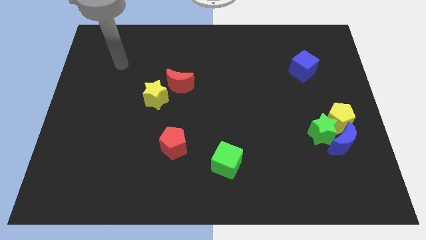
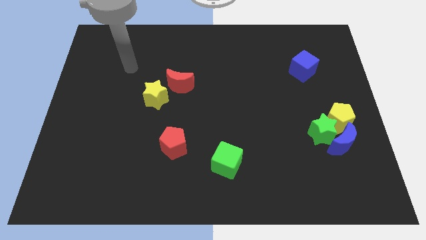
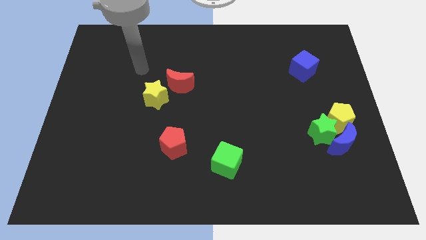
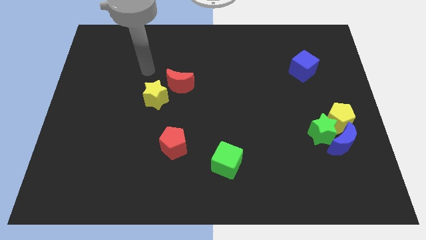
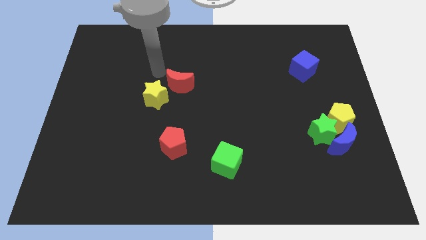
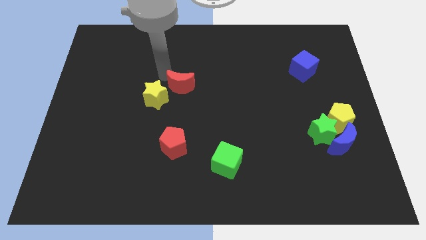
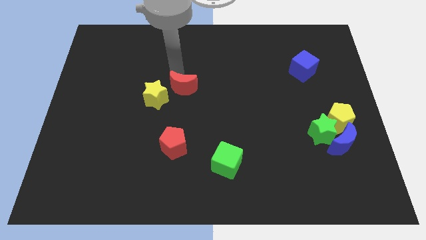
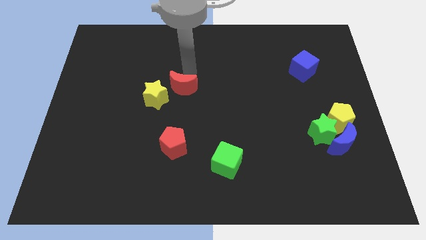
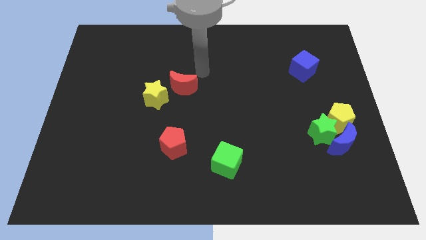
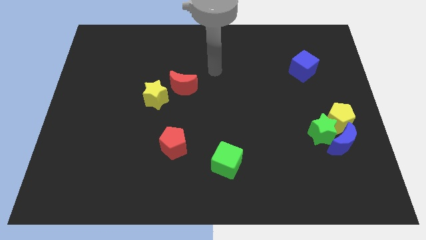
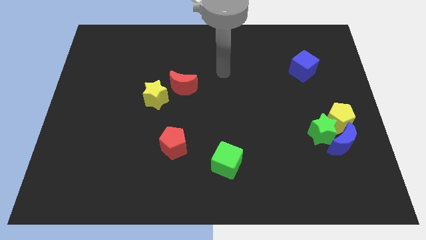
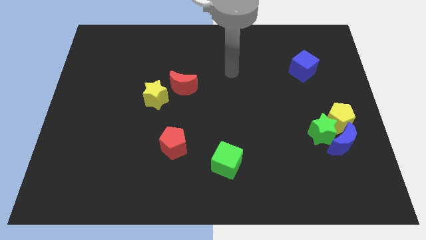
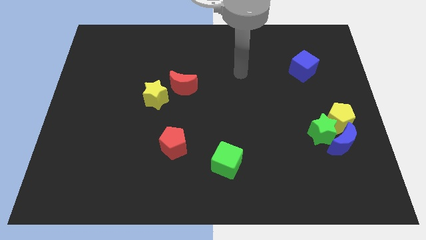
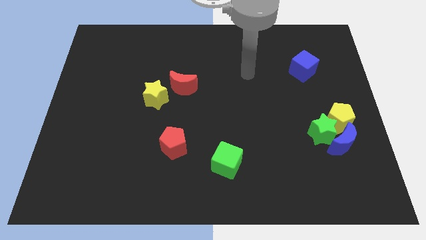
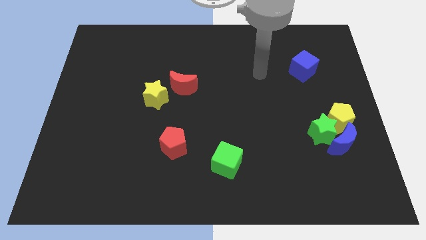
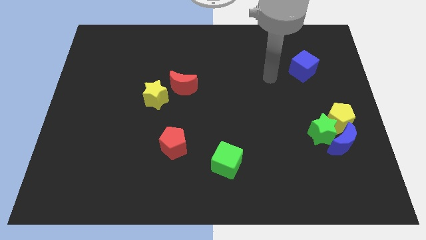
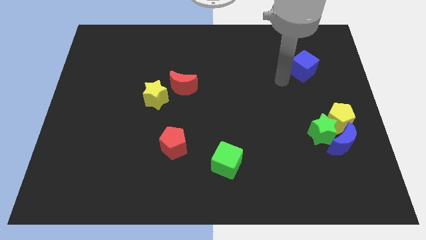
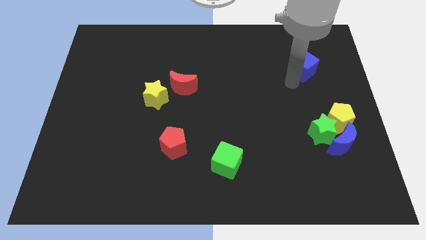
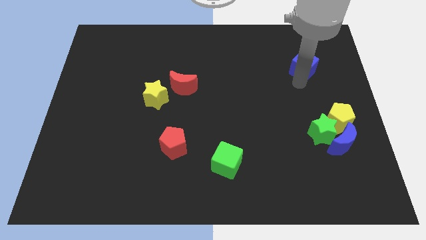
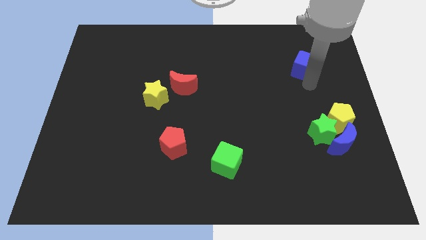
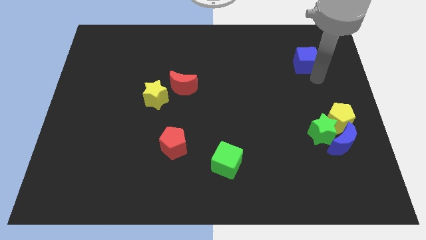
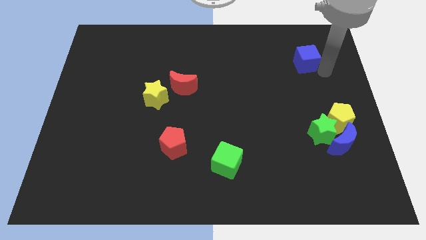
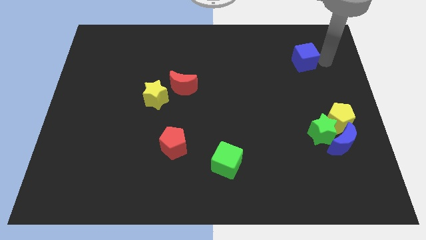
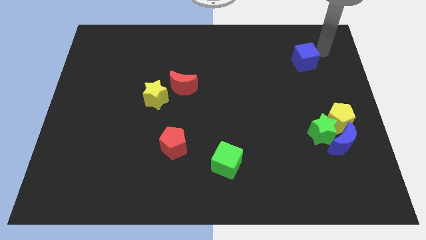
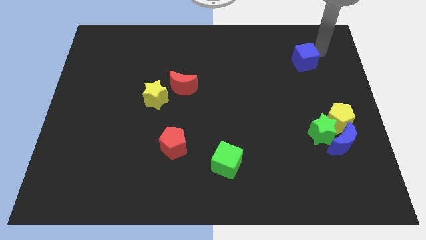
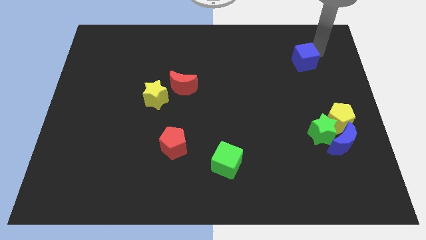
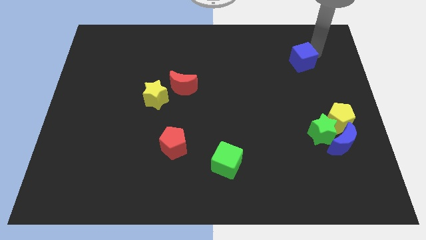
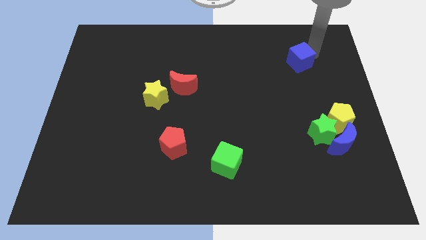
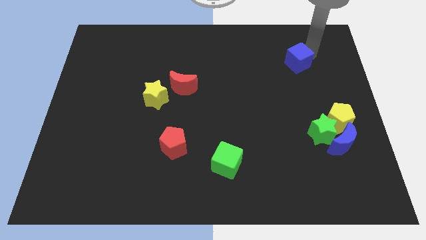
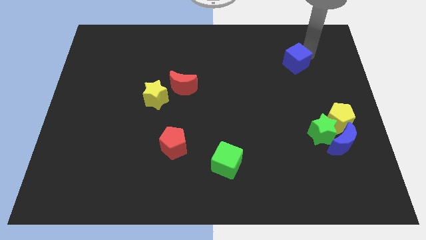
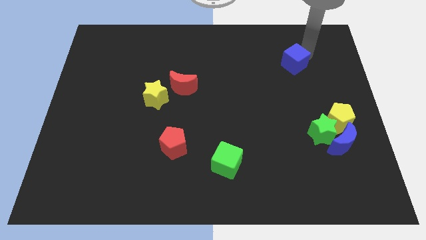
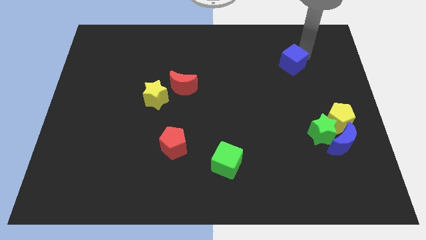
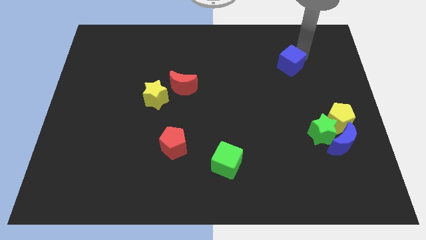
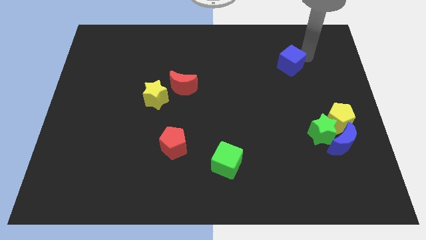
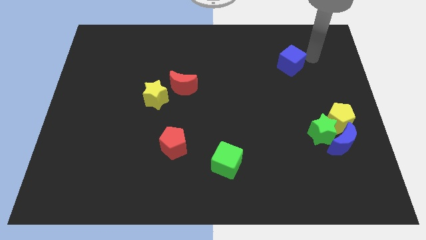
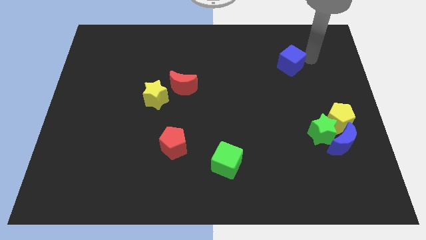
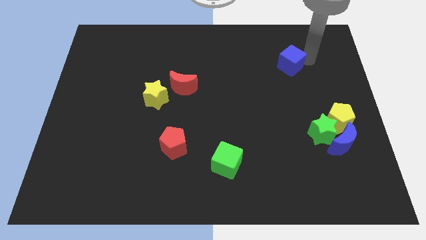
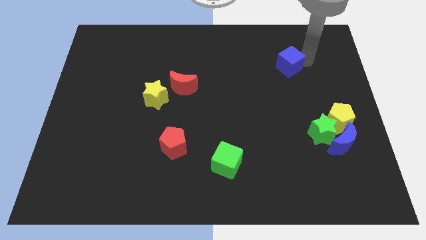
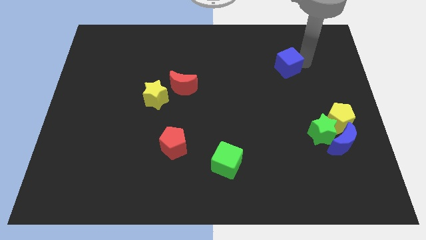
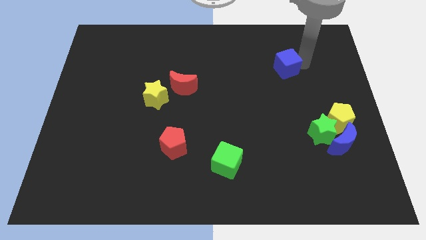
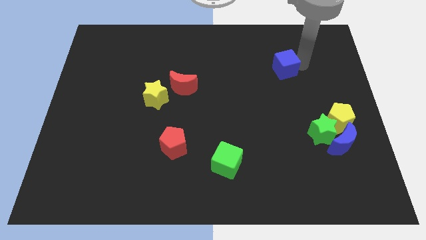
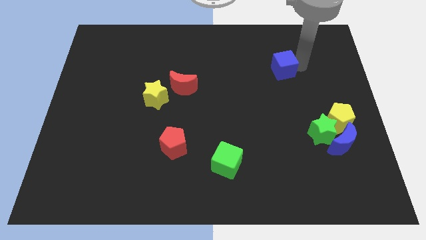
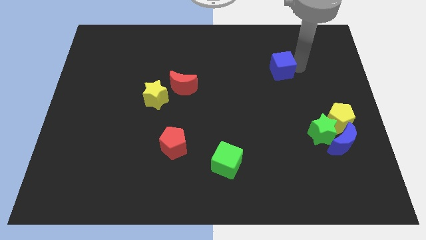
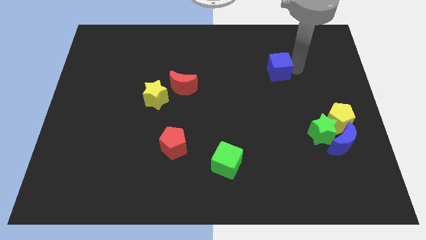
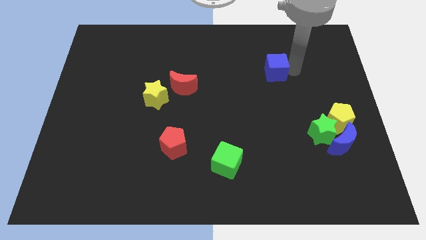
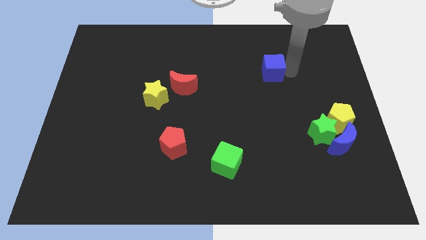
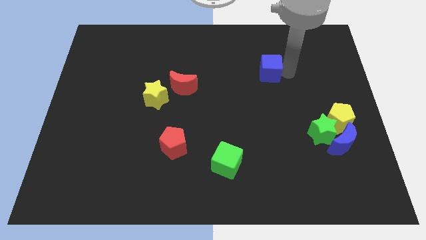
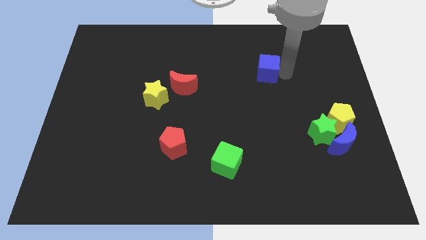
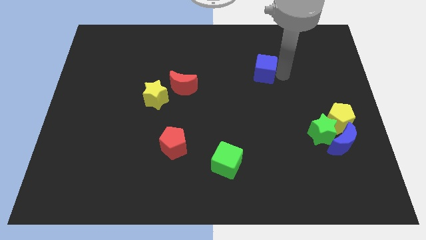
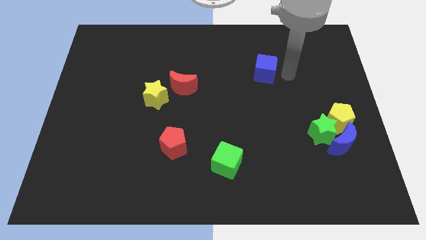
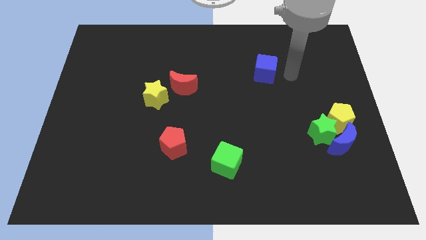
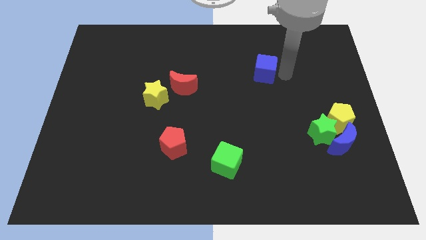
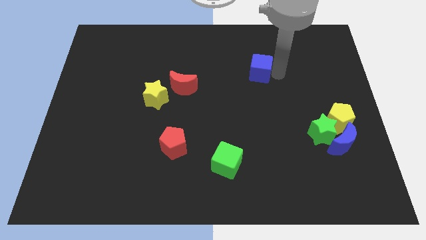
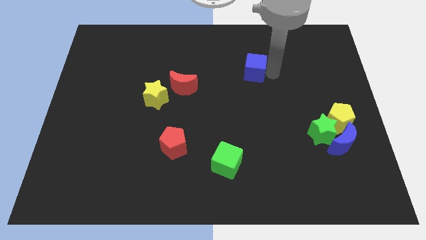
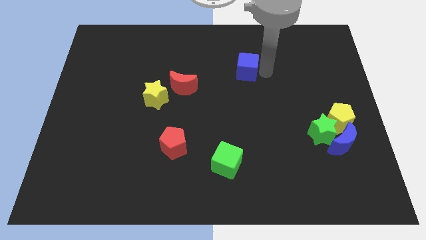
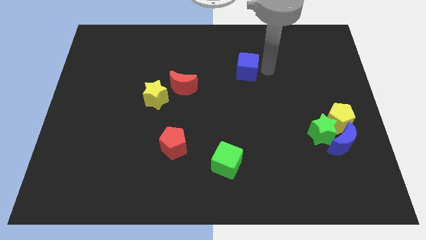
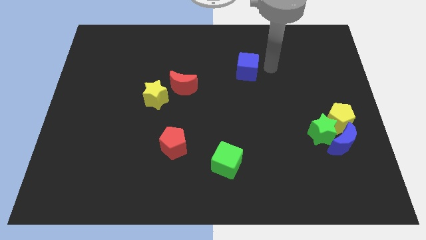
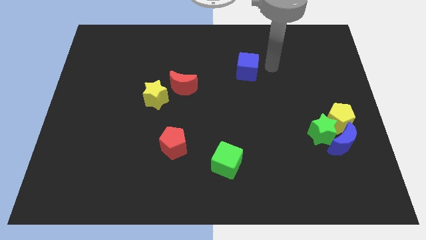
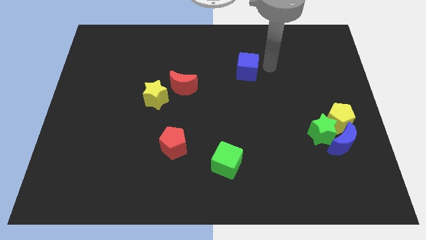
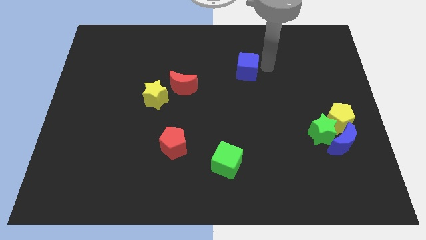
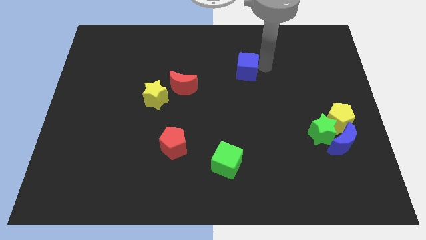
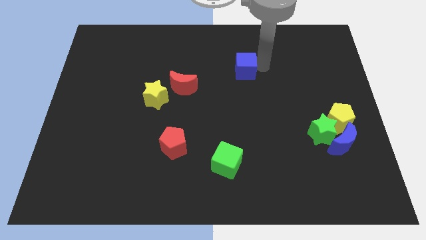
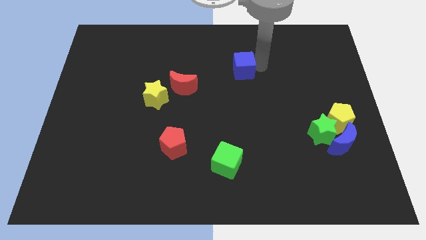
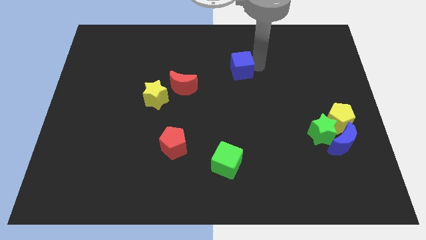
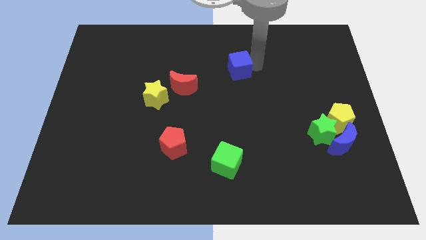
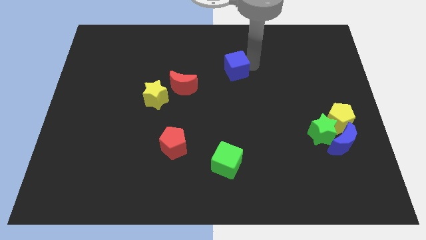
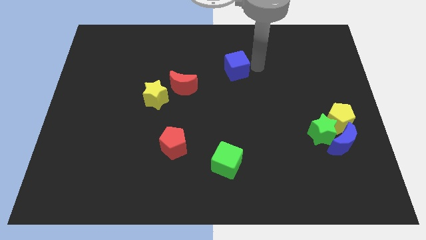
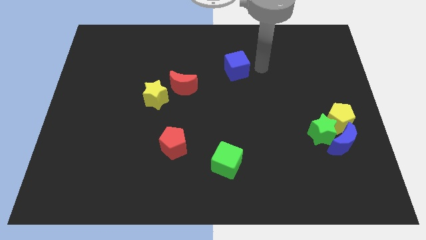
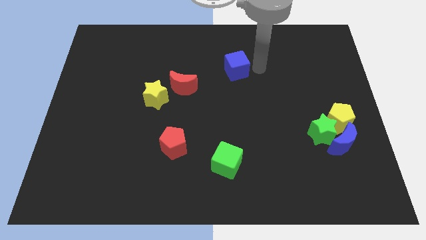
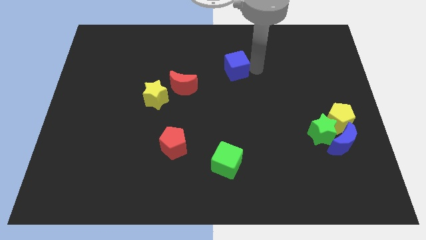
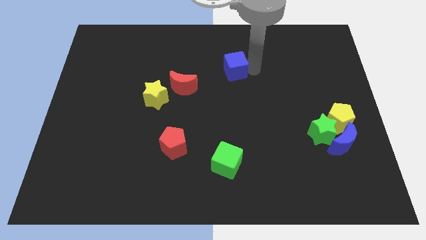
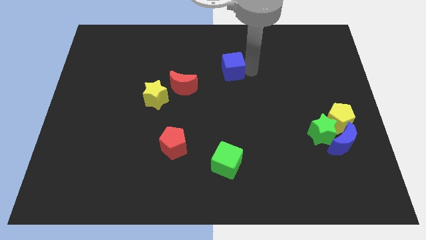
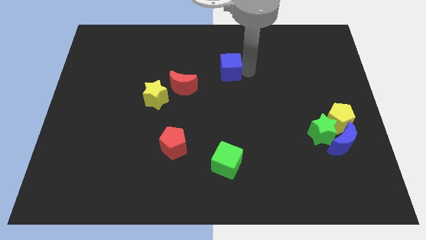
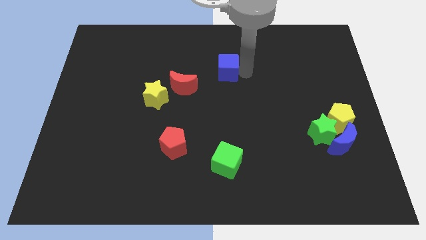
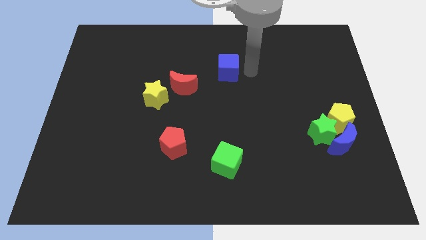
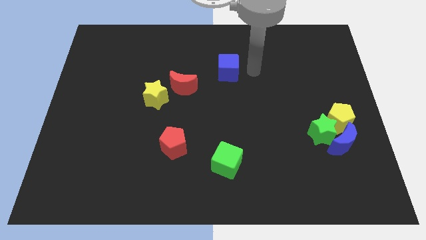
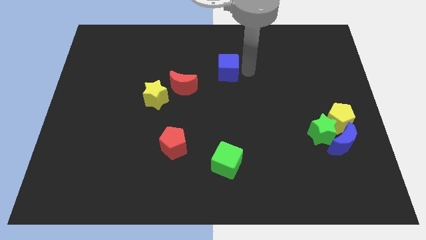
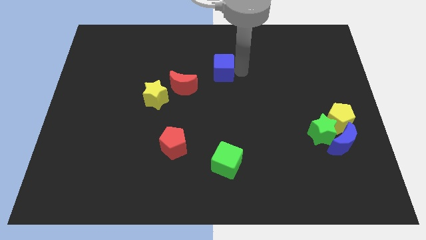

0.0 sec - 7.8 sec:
push the blue cube to the left
